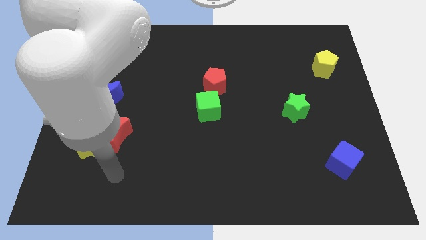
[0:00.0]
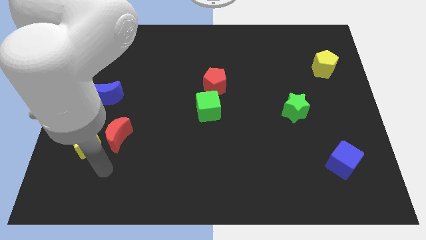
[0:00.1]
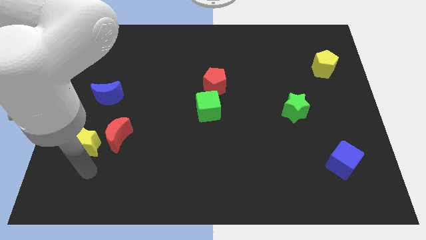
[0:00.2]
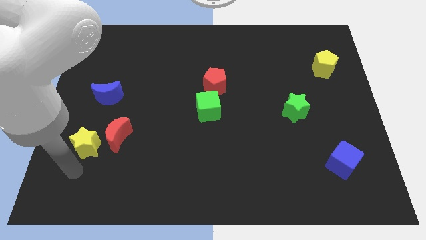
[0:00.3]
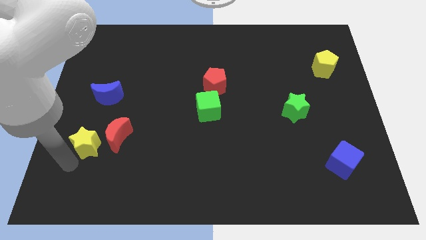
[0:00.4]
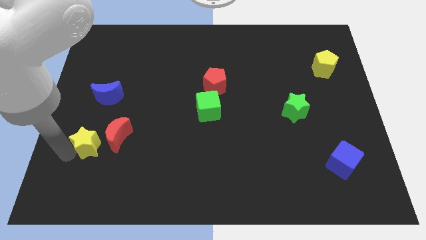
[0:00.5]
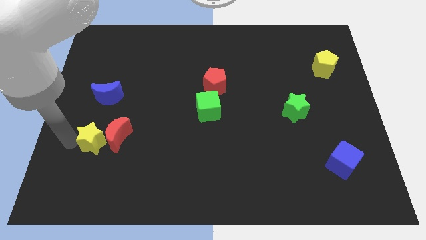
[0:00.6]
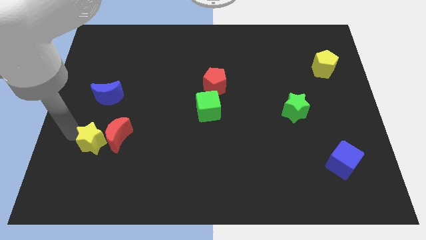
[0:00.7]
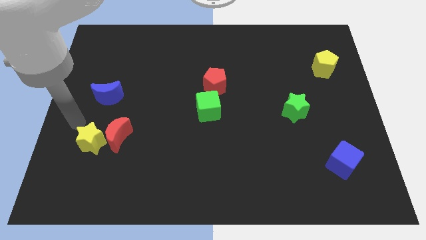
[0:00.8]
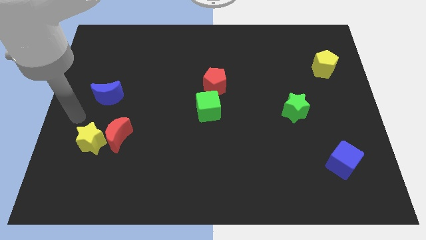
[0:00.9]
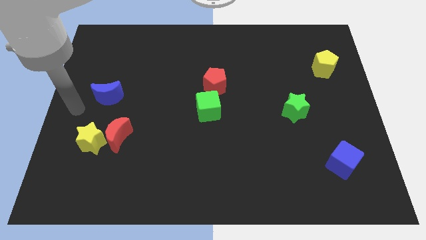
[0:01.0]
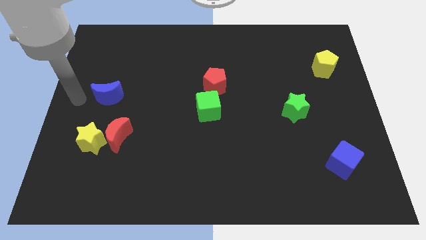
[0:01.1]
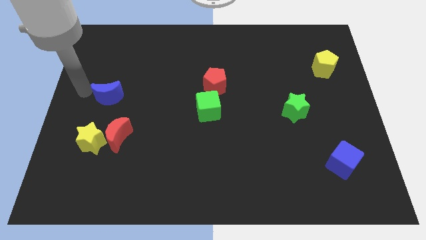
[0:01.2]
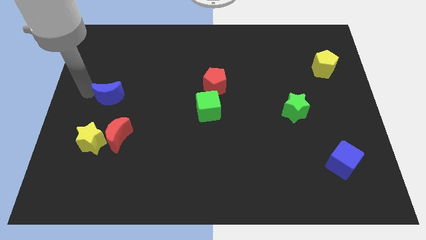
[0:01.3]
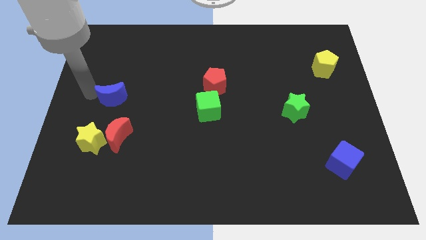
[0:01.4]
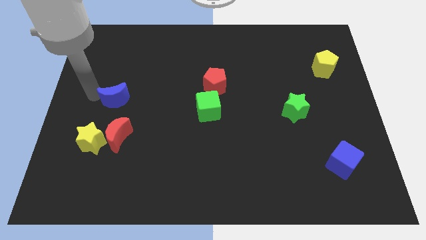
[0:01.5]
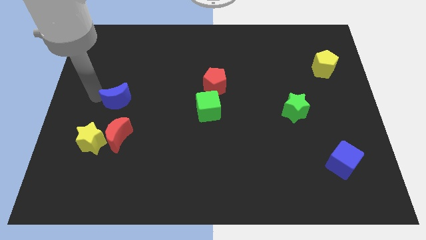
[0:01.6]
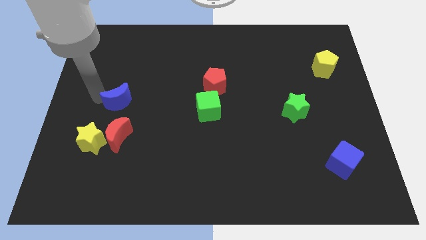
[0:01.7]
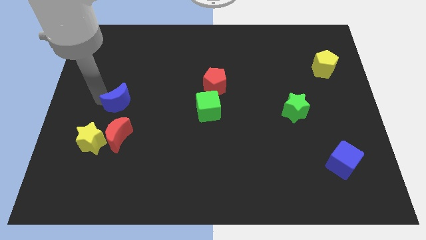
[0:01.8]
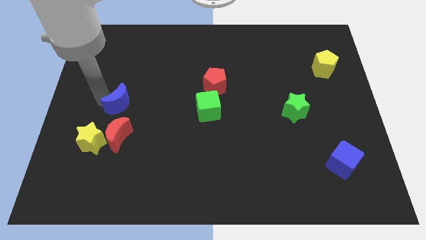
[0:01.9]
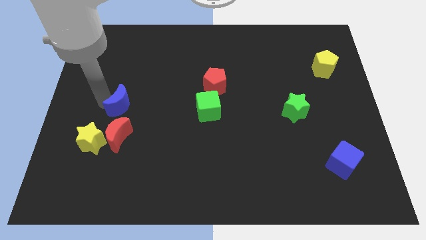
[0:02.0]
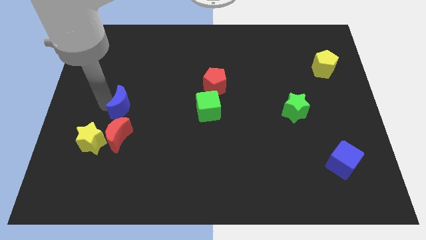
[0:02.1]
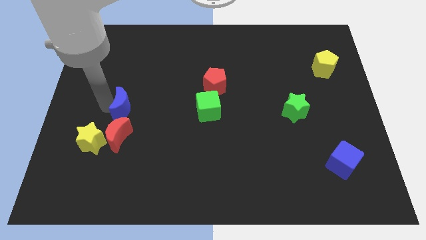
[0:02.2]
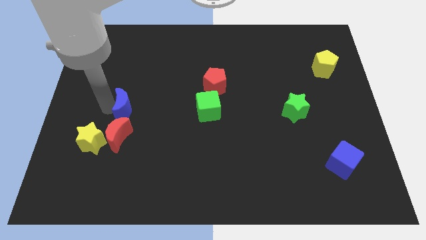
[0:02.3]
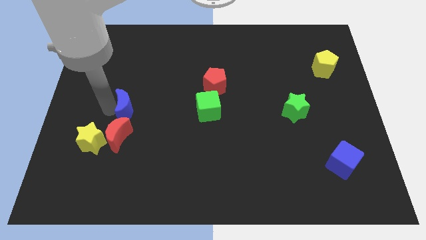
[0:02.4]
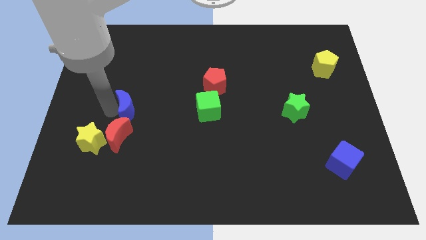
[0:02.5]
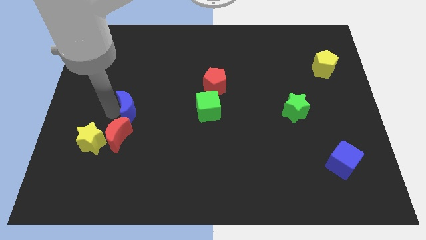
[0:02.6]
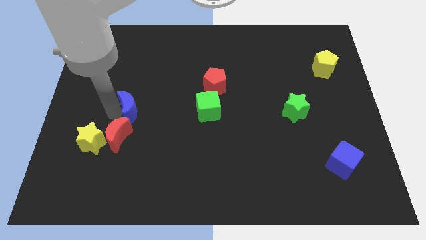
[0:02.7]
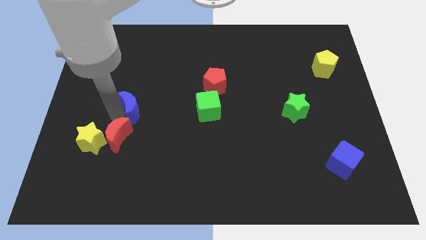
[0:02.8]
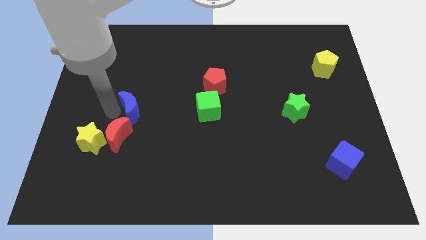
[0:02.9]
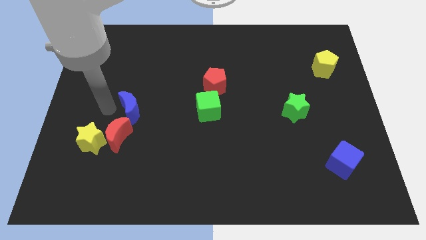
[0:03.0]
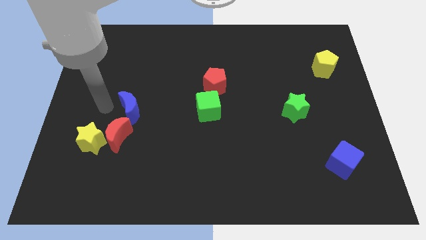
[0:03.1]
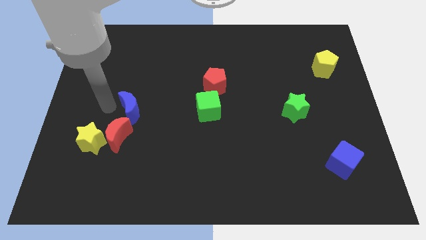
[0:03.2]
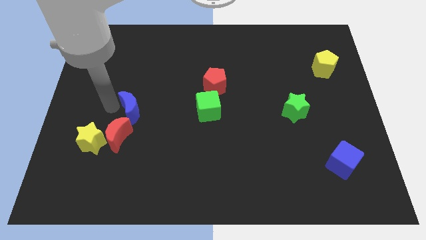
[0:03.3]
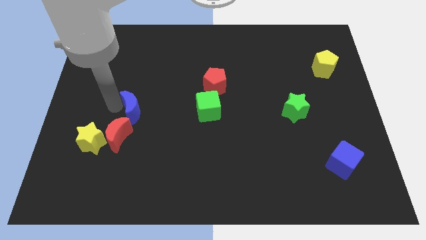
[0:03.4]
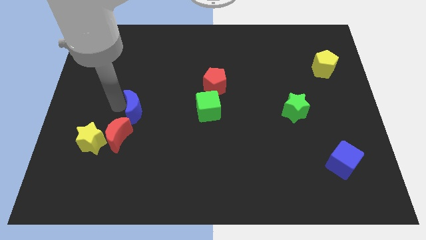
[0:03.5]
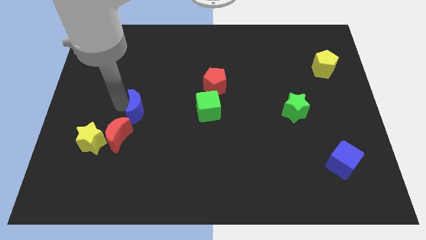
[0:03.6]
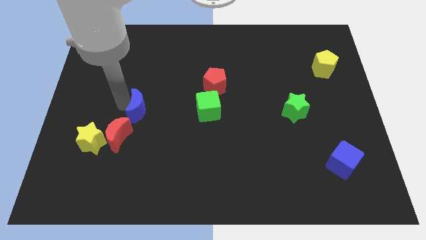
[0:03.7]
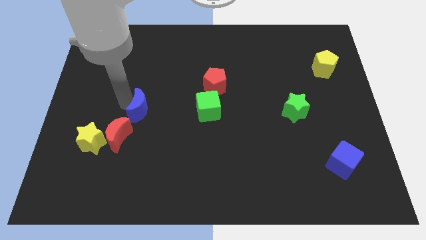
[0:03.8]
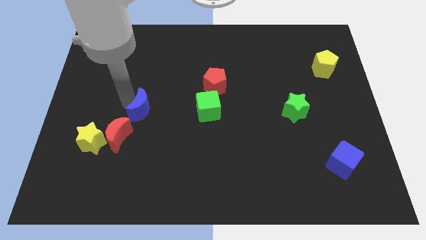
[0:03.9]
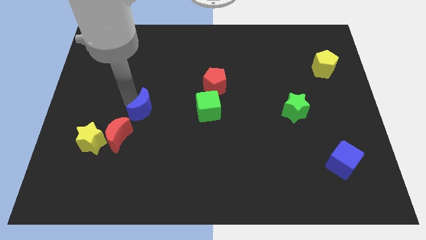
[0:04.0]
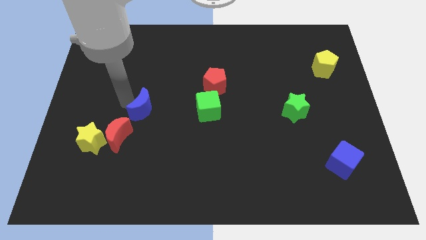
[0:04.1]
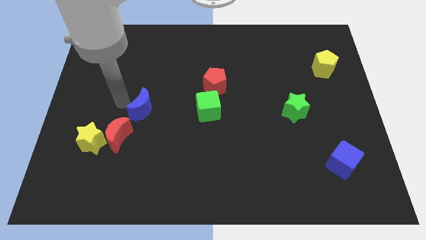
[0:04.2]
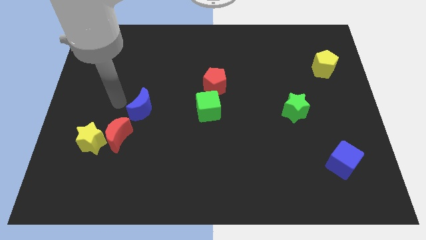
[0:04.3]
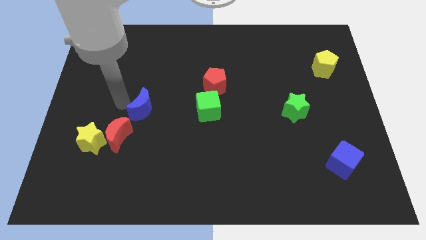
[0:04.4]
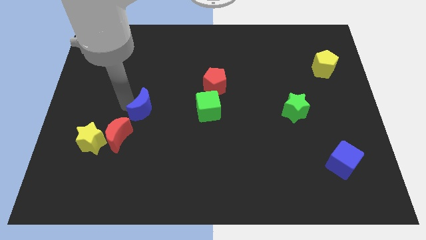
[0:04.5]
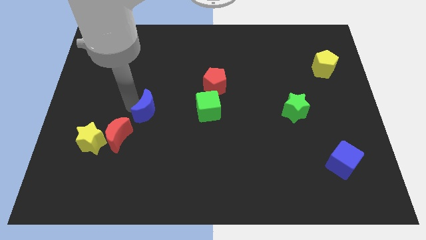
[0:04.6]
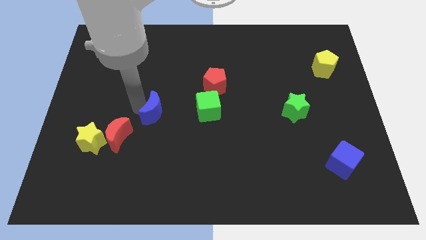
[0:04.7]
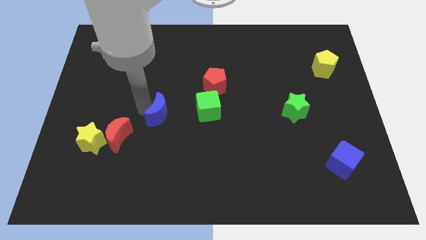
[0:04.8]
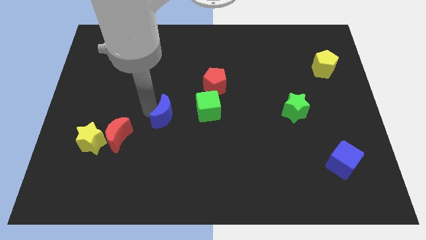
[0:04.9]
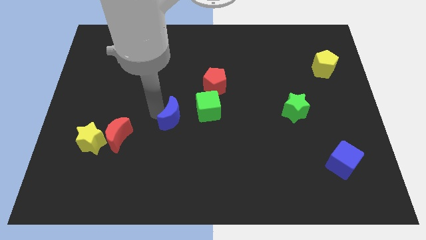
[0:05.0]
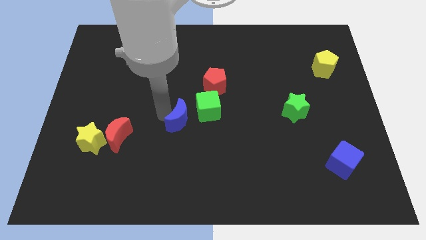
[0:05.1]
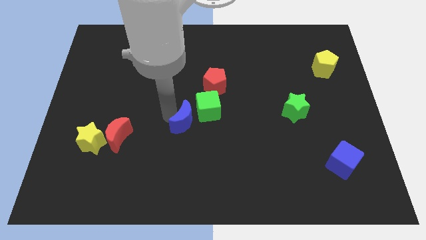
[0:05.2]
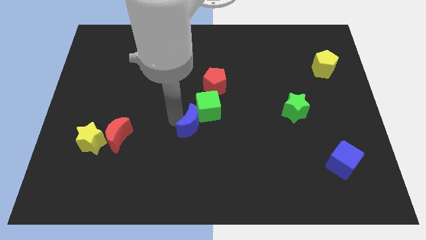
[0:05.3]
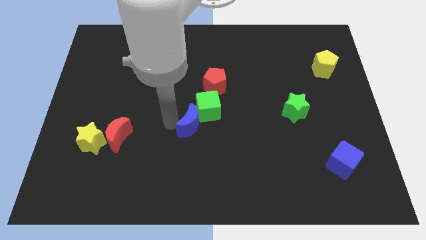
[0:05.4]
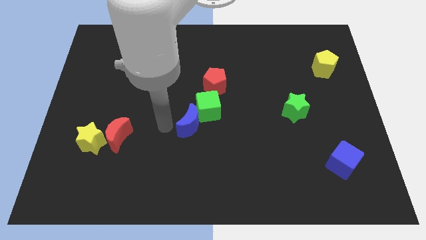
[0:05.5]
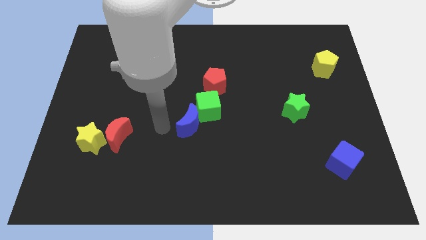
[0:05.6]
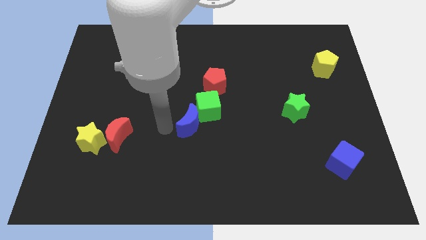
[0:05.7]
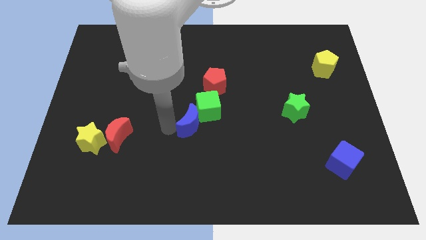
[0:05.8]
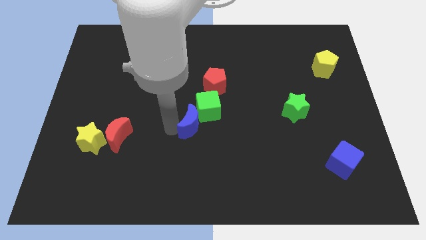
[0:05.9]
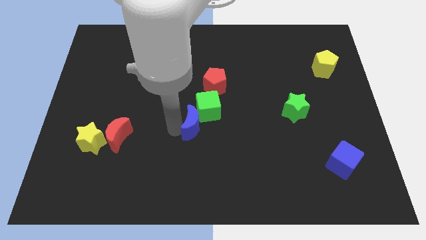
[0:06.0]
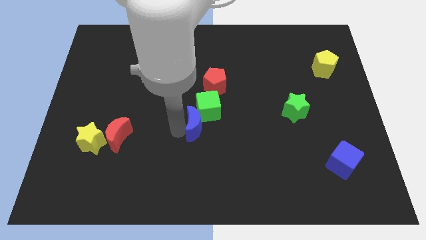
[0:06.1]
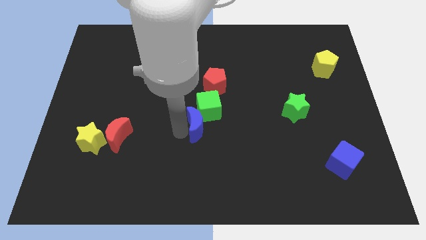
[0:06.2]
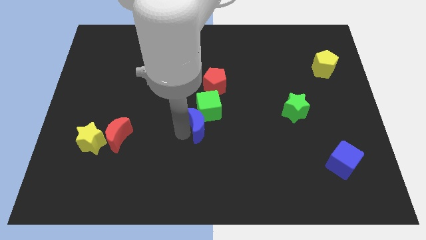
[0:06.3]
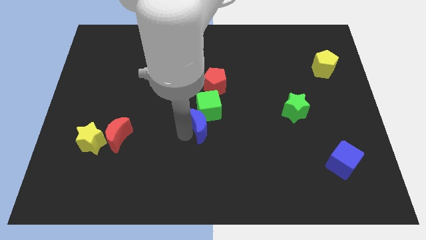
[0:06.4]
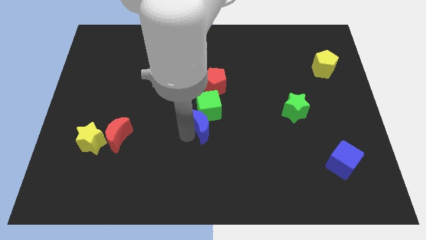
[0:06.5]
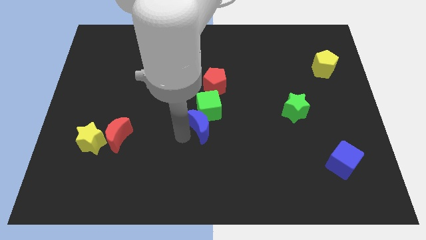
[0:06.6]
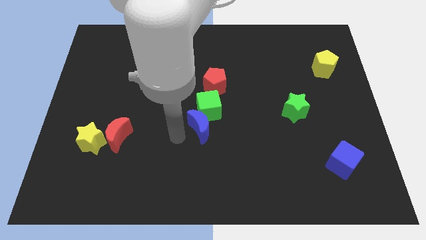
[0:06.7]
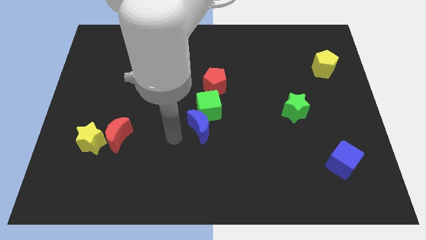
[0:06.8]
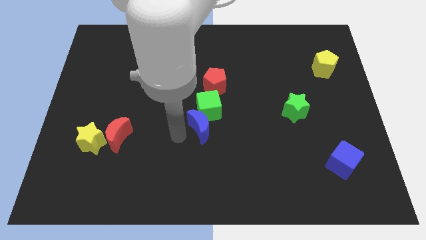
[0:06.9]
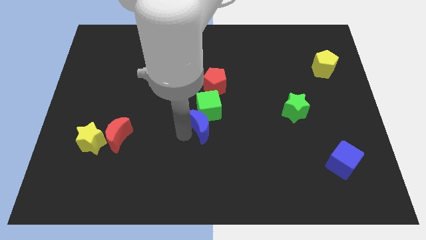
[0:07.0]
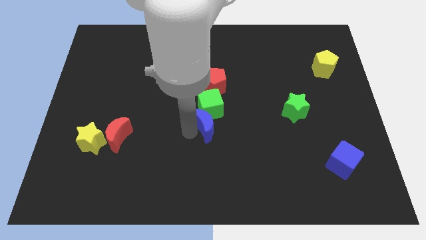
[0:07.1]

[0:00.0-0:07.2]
slide the blue moon right

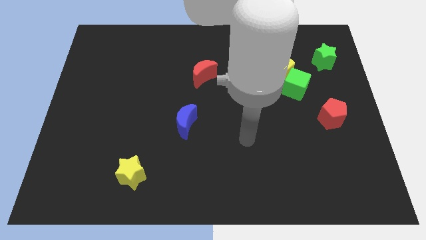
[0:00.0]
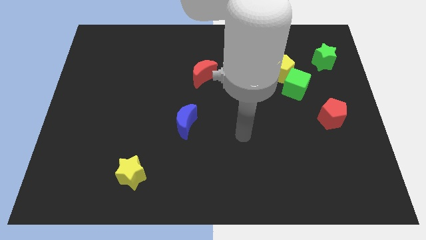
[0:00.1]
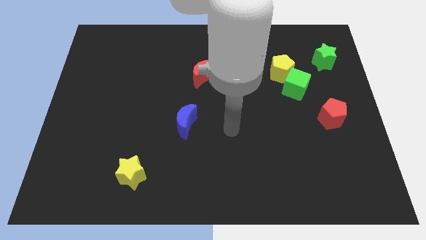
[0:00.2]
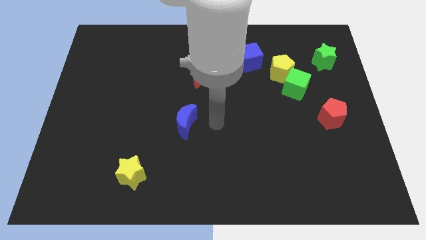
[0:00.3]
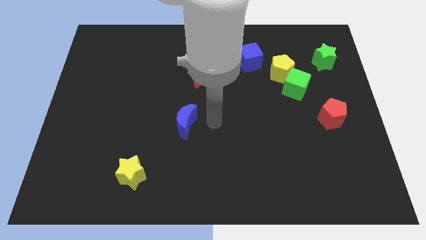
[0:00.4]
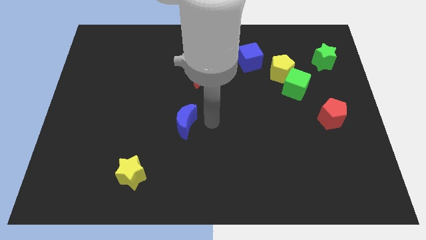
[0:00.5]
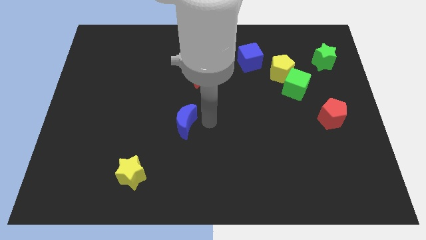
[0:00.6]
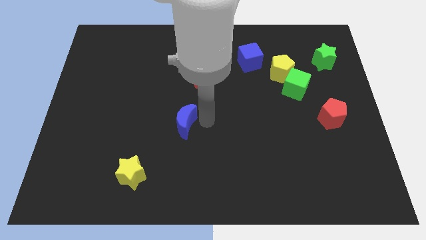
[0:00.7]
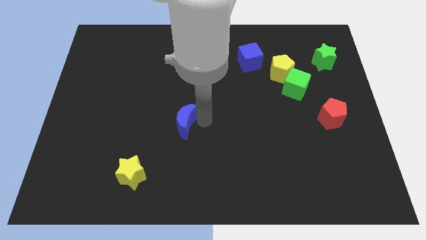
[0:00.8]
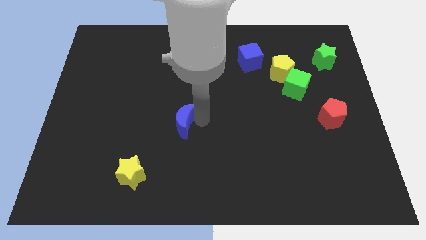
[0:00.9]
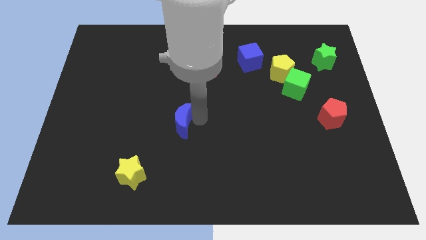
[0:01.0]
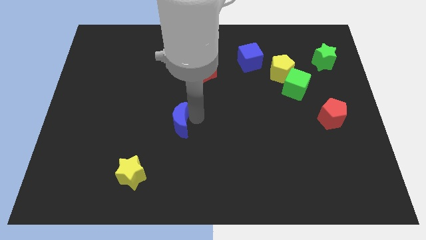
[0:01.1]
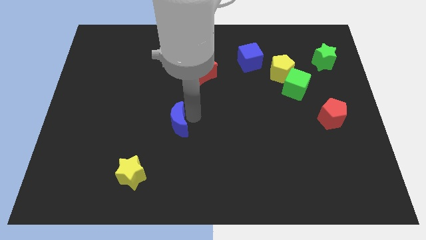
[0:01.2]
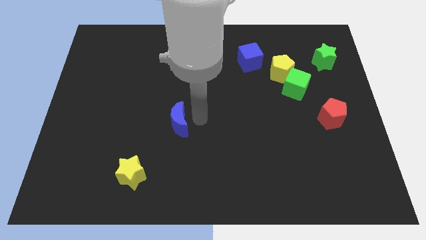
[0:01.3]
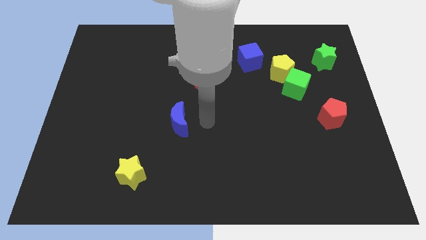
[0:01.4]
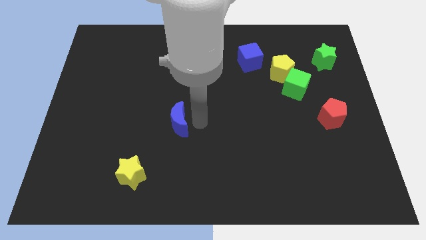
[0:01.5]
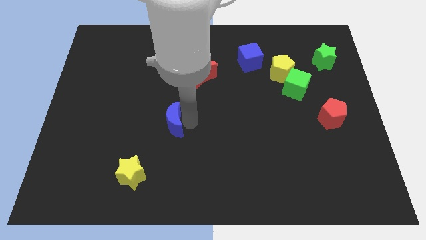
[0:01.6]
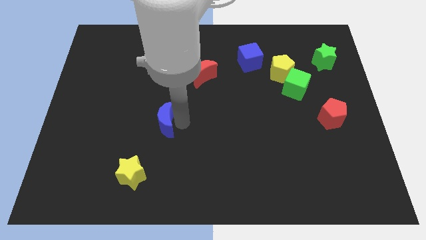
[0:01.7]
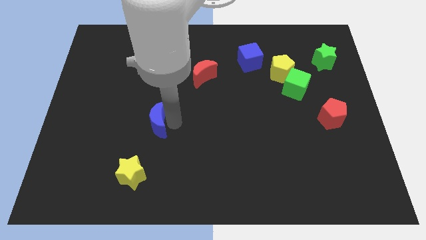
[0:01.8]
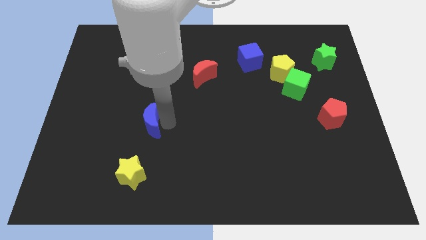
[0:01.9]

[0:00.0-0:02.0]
move the blue moon left a bit
